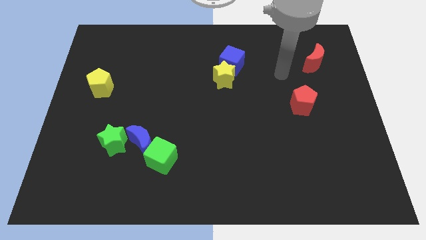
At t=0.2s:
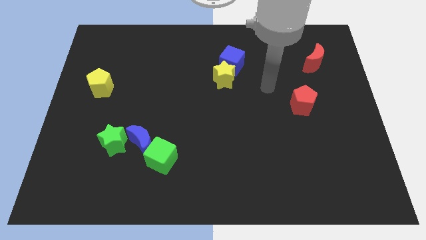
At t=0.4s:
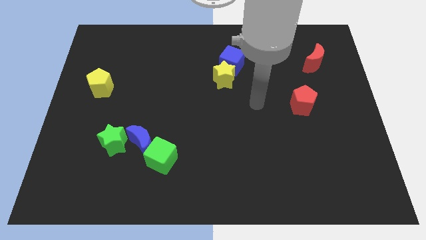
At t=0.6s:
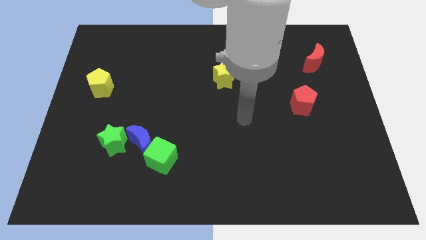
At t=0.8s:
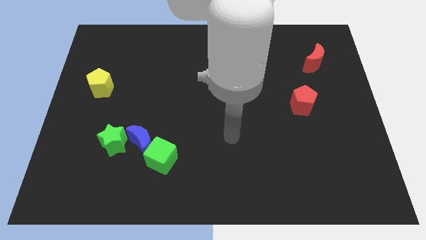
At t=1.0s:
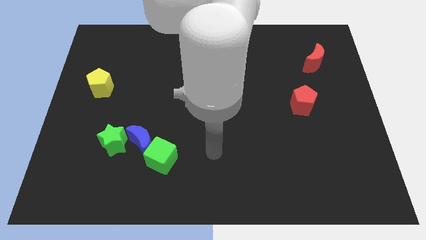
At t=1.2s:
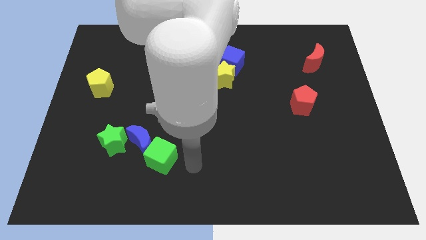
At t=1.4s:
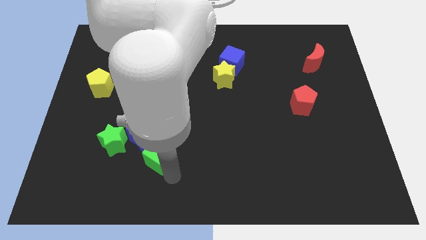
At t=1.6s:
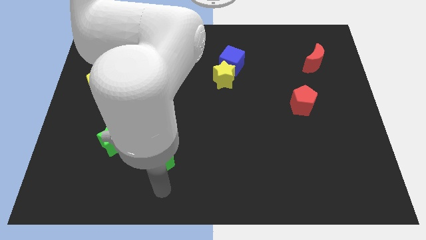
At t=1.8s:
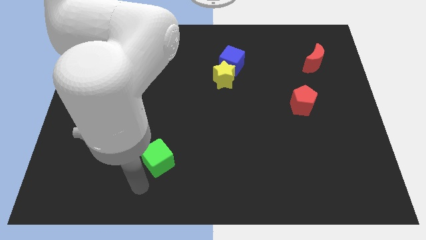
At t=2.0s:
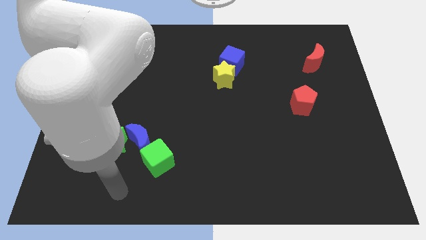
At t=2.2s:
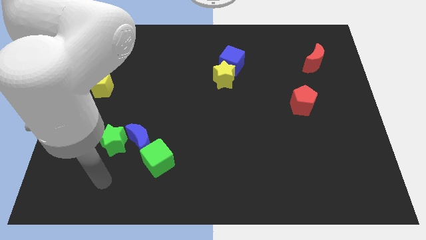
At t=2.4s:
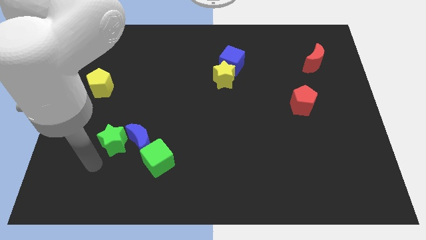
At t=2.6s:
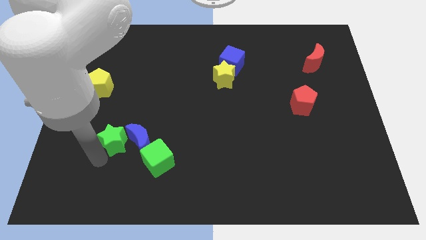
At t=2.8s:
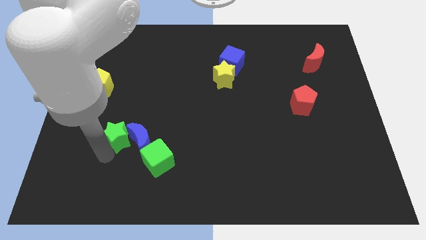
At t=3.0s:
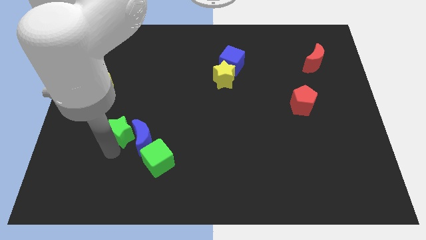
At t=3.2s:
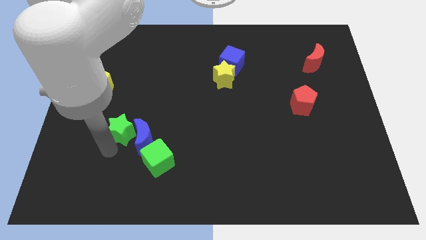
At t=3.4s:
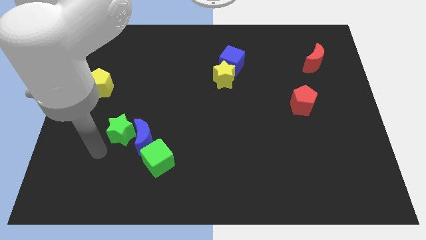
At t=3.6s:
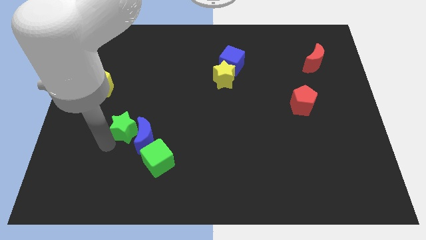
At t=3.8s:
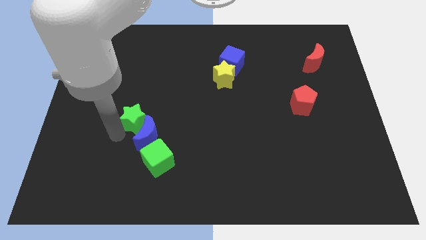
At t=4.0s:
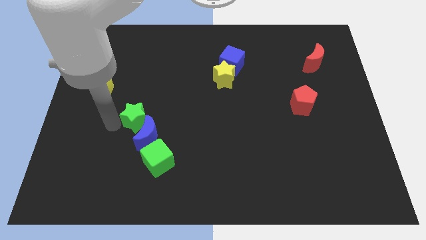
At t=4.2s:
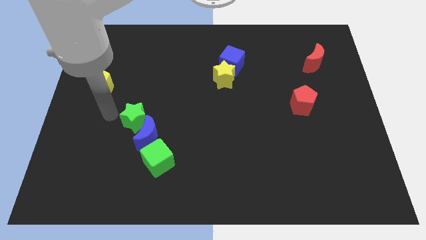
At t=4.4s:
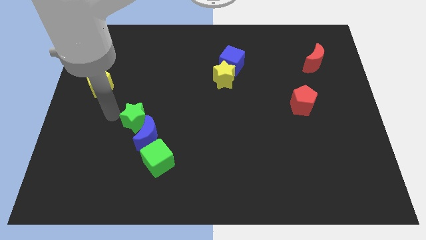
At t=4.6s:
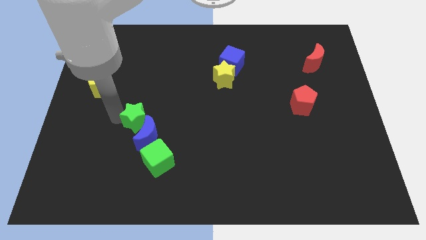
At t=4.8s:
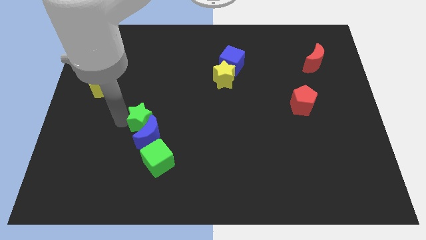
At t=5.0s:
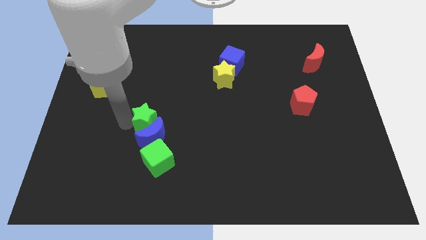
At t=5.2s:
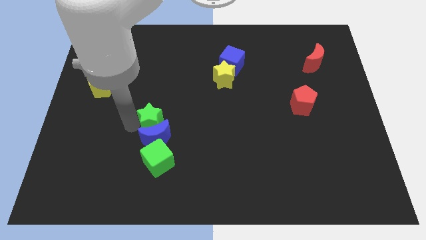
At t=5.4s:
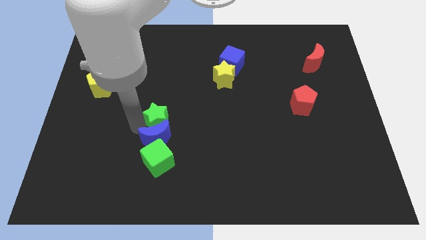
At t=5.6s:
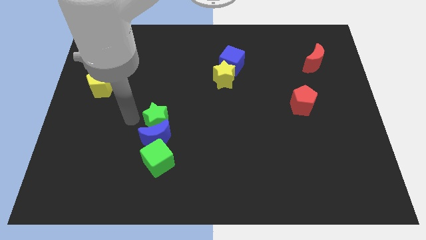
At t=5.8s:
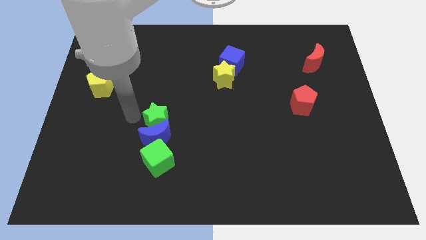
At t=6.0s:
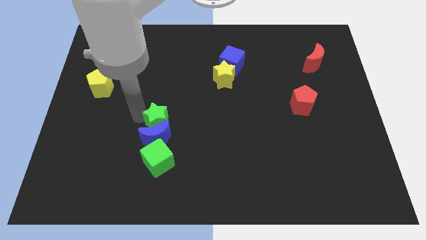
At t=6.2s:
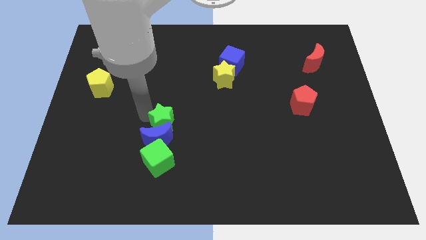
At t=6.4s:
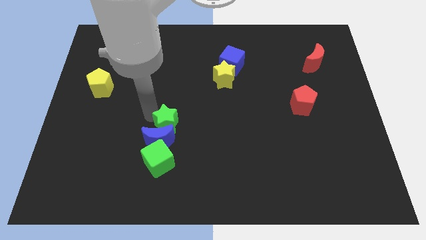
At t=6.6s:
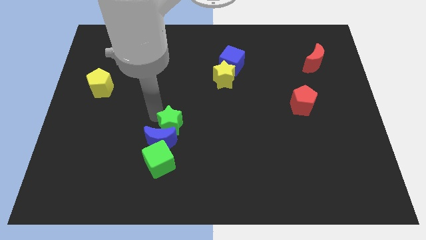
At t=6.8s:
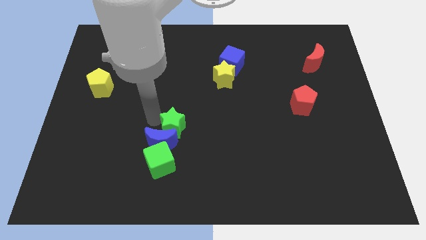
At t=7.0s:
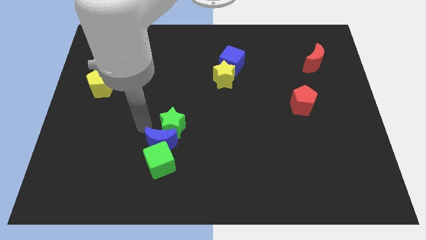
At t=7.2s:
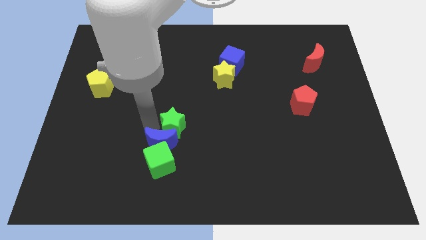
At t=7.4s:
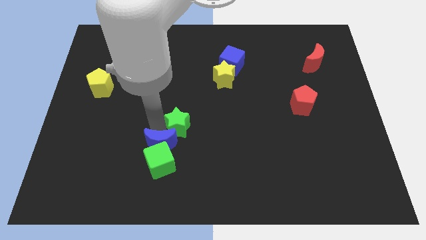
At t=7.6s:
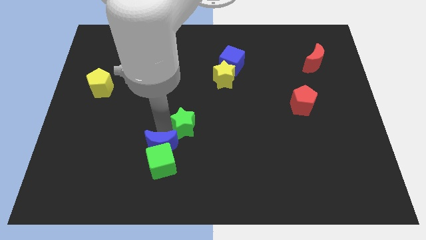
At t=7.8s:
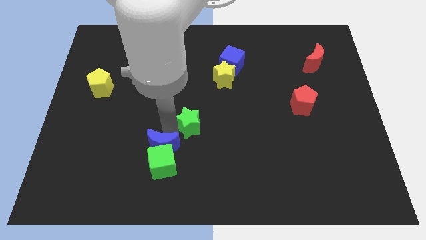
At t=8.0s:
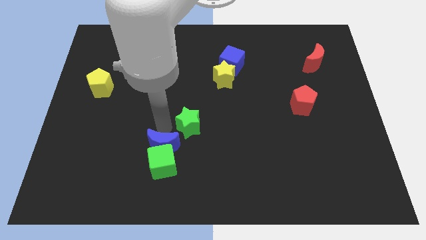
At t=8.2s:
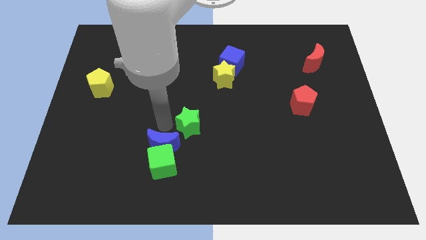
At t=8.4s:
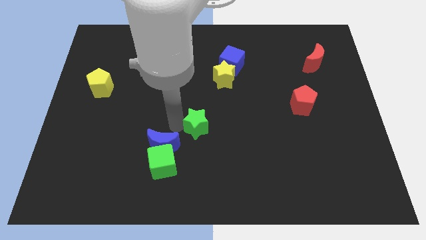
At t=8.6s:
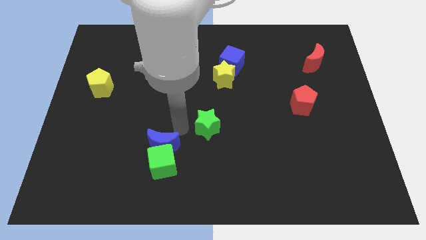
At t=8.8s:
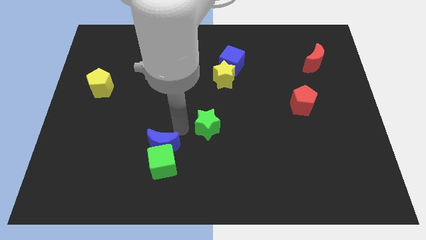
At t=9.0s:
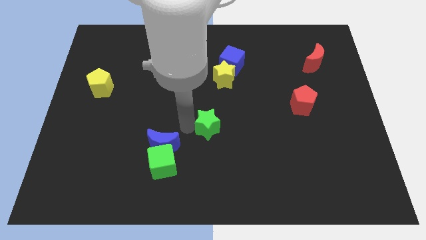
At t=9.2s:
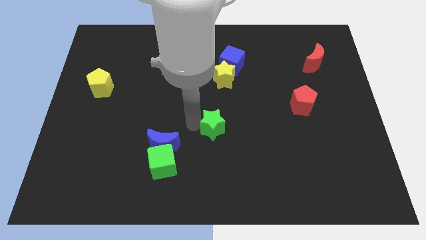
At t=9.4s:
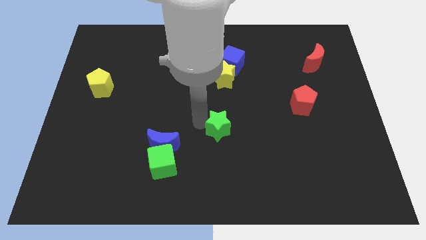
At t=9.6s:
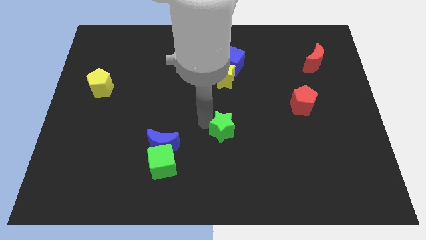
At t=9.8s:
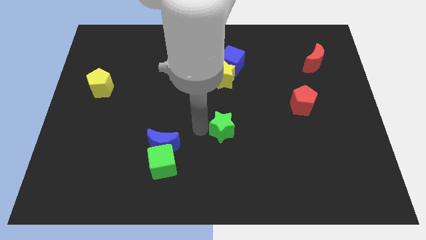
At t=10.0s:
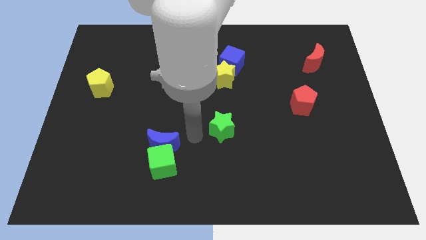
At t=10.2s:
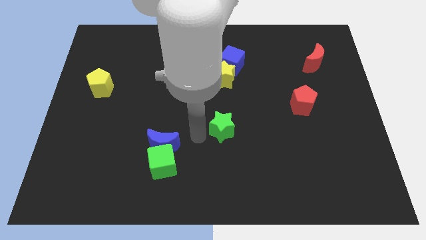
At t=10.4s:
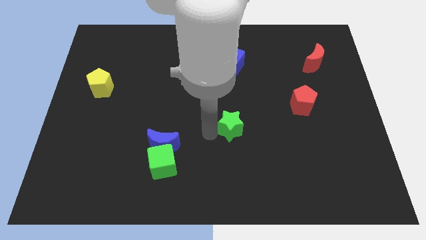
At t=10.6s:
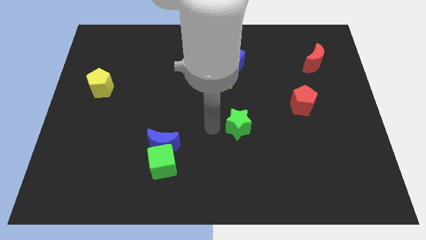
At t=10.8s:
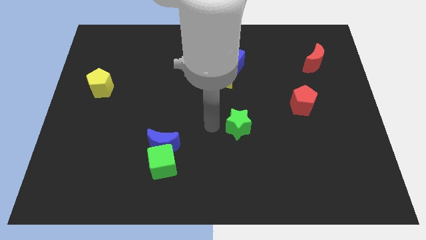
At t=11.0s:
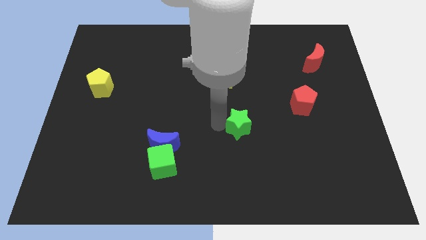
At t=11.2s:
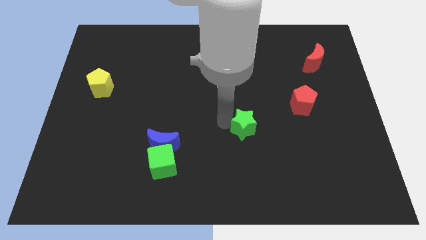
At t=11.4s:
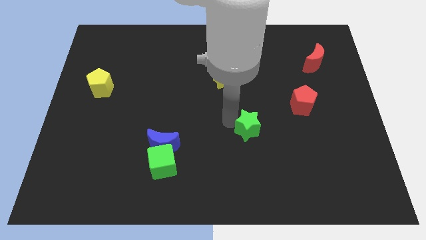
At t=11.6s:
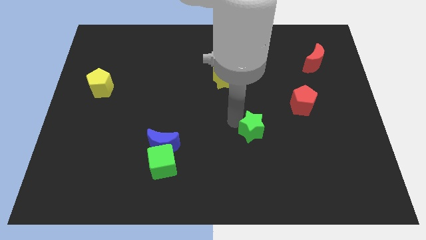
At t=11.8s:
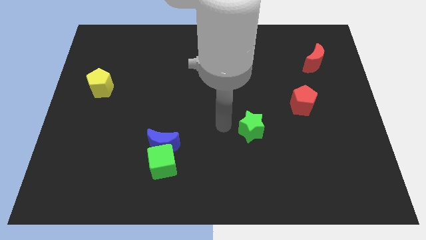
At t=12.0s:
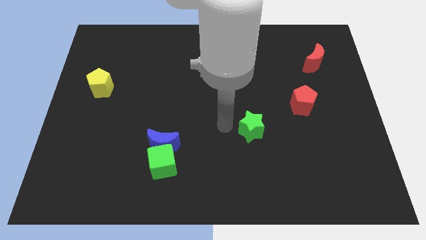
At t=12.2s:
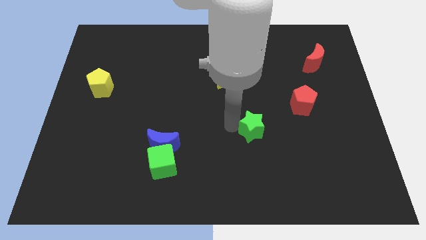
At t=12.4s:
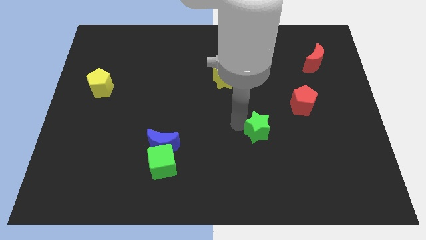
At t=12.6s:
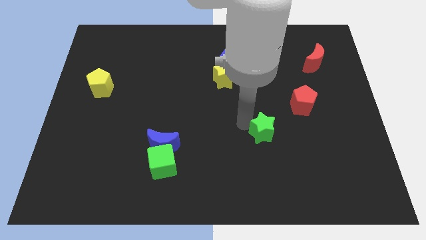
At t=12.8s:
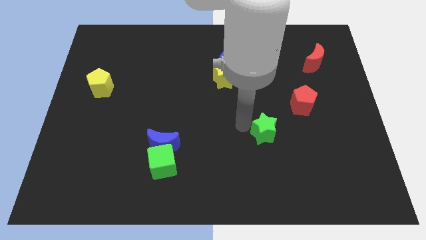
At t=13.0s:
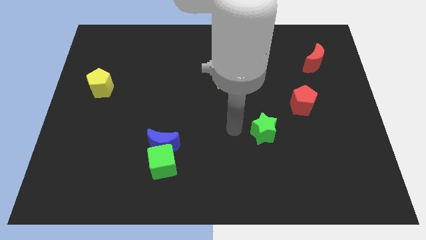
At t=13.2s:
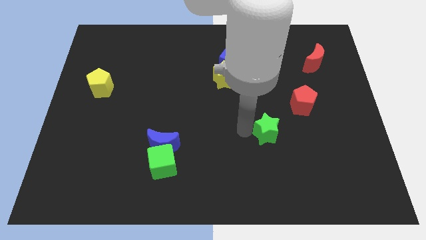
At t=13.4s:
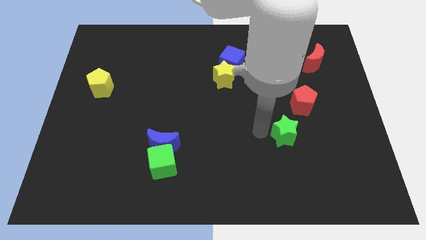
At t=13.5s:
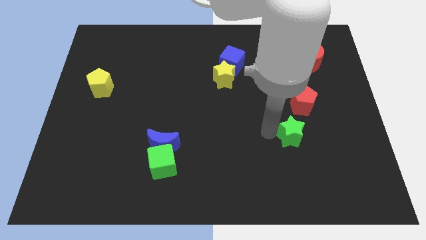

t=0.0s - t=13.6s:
put the green star below the red pentagon

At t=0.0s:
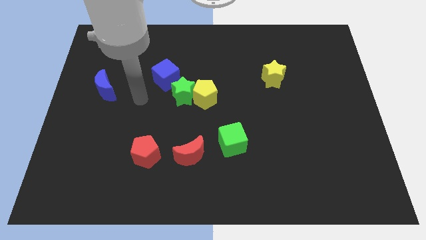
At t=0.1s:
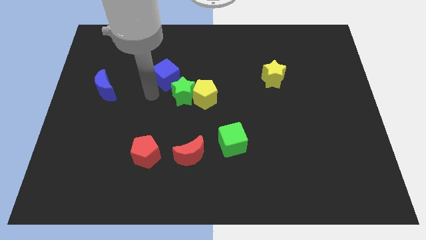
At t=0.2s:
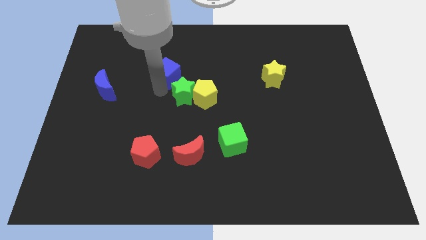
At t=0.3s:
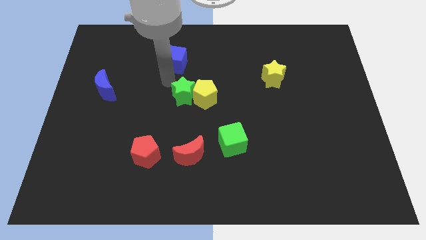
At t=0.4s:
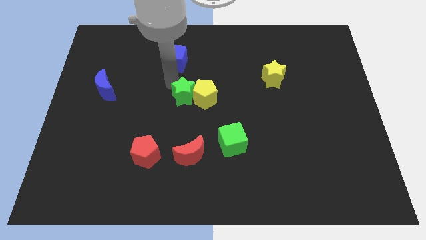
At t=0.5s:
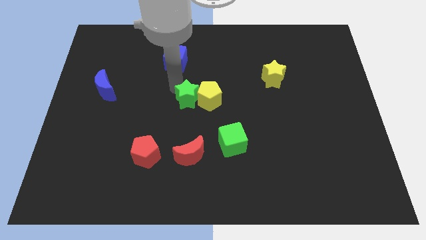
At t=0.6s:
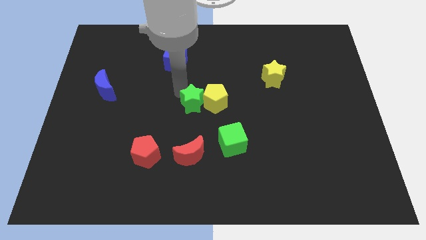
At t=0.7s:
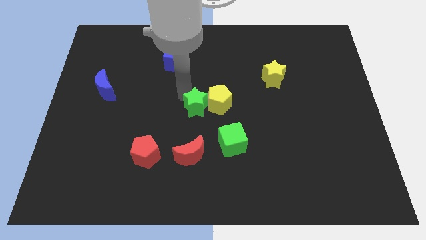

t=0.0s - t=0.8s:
push the green star to the top left of the green cube
